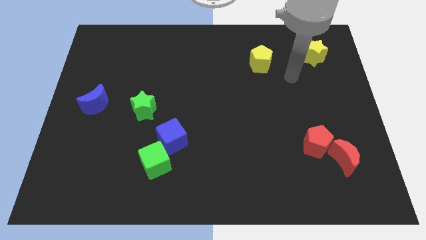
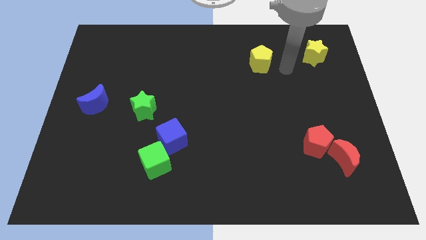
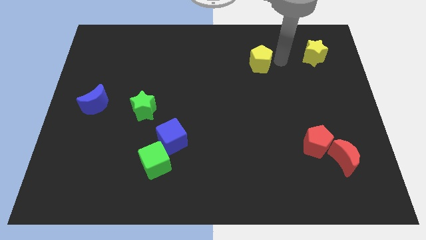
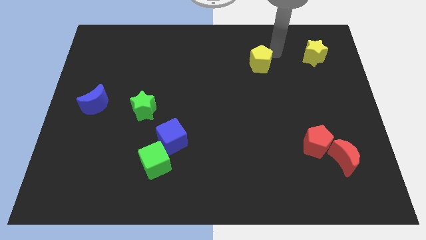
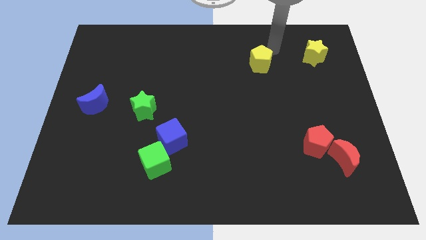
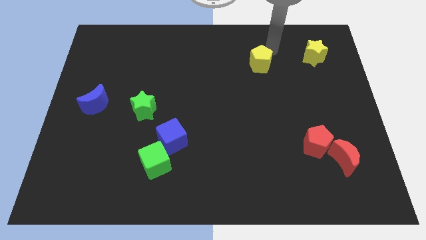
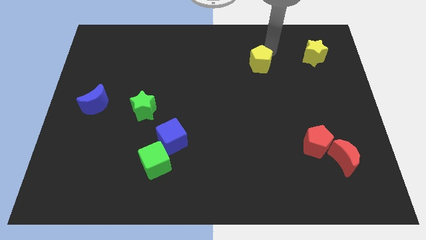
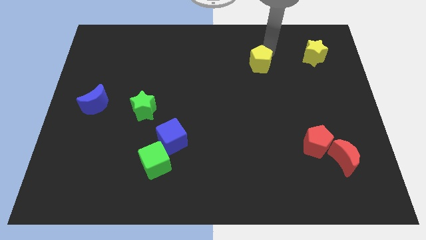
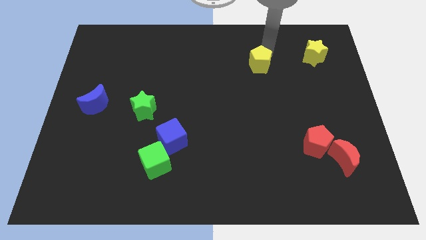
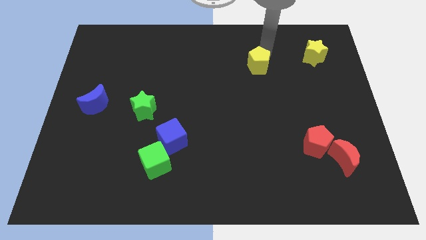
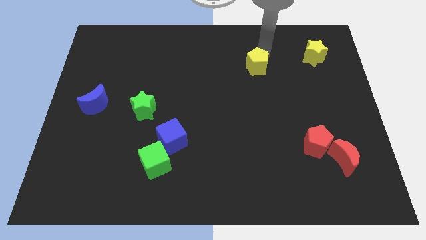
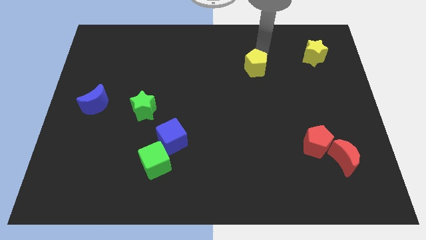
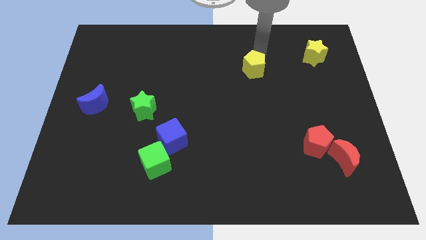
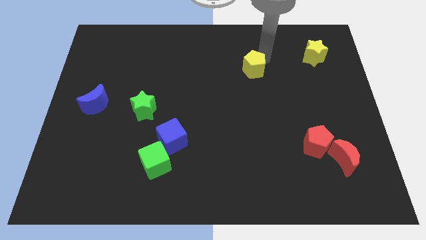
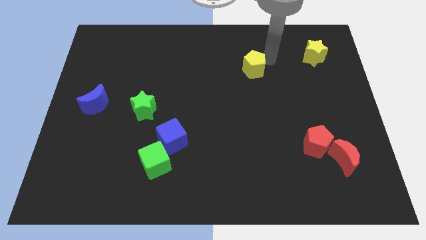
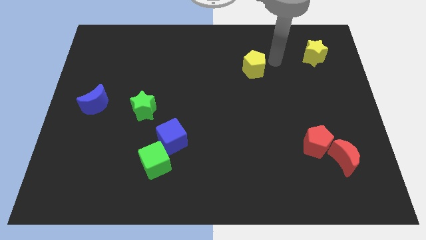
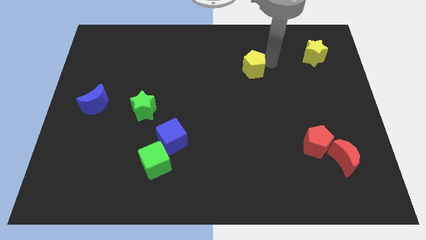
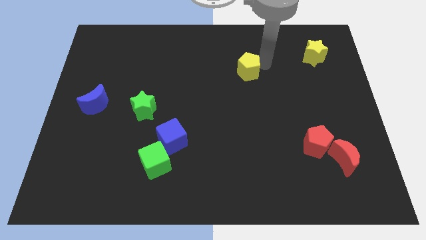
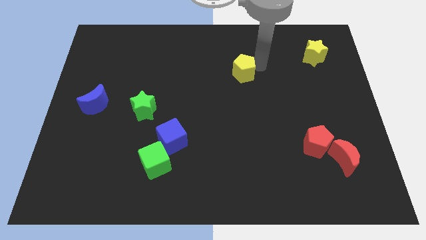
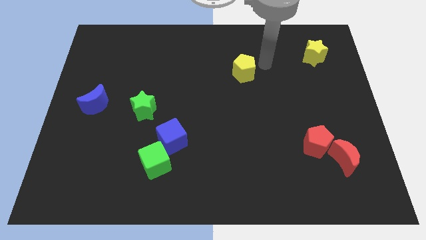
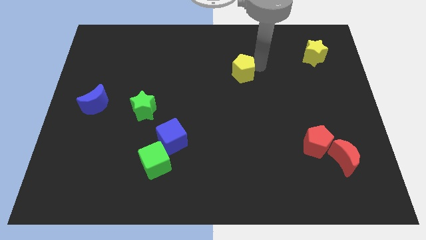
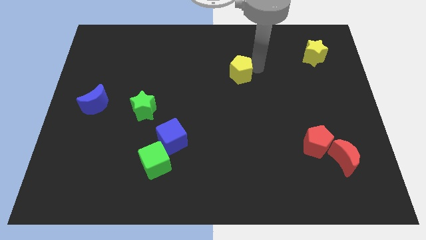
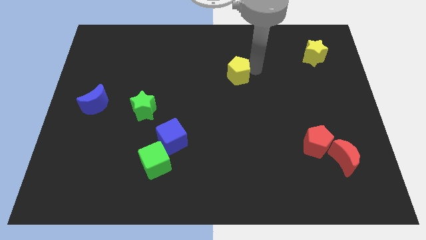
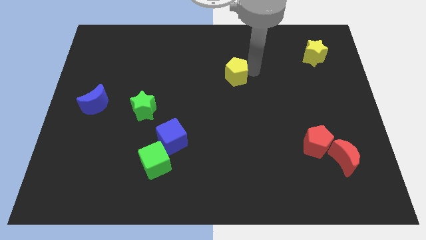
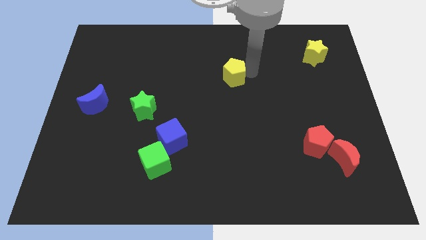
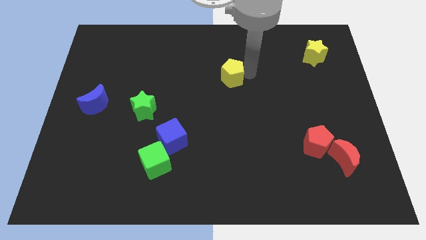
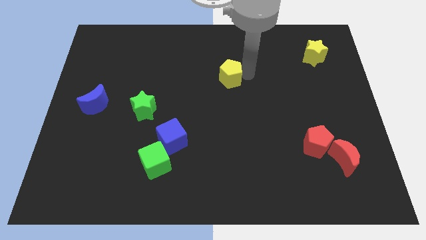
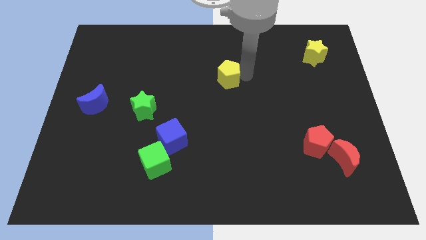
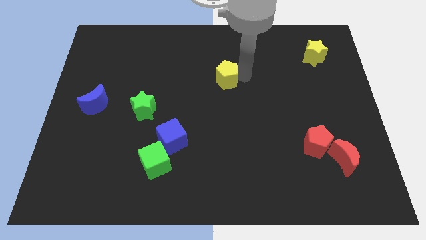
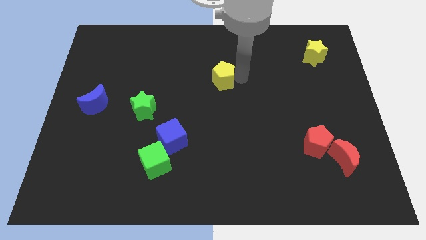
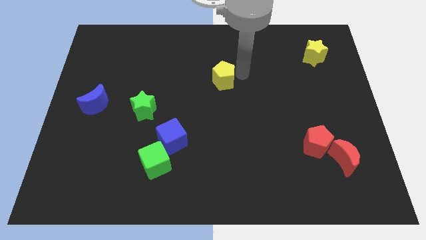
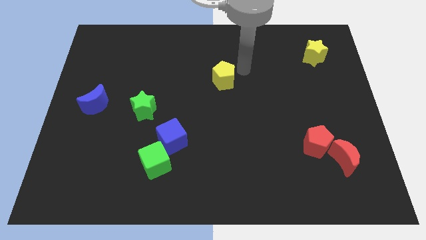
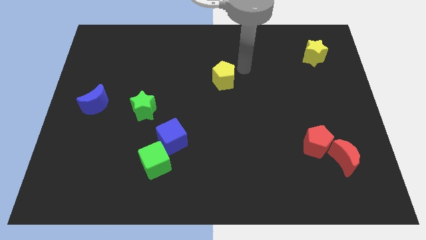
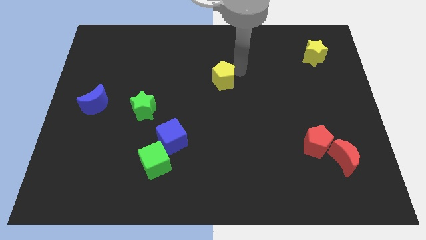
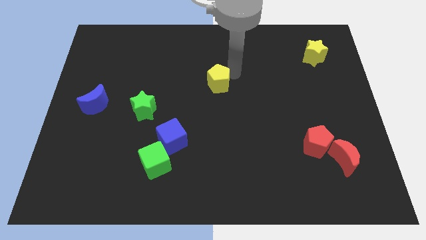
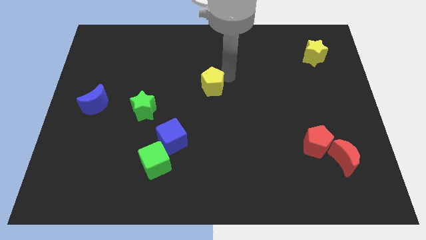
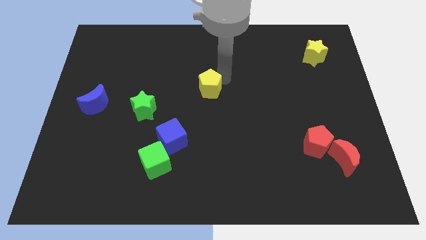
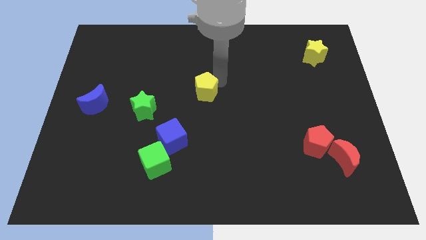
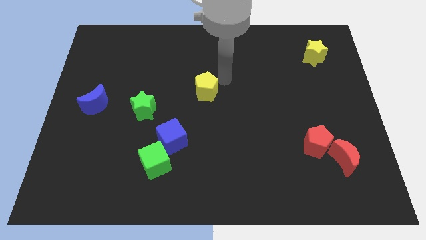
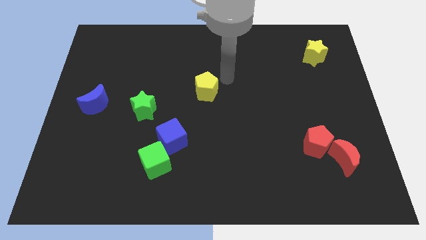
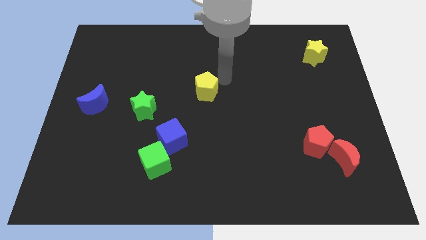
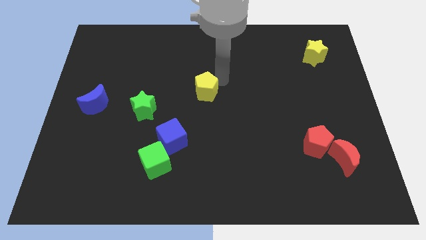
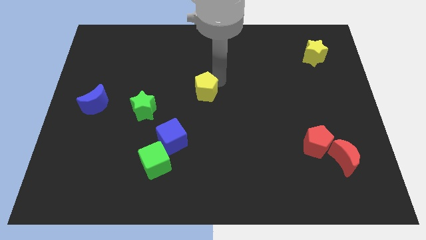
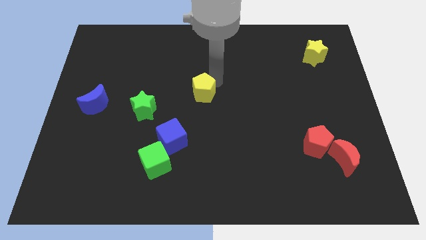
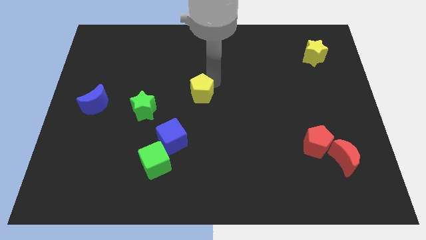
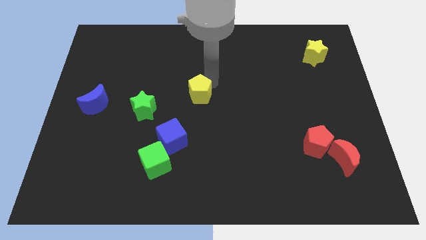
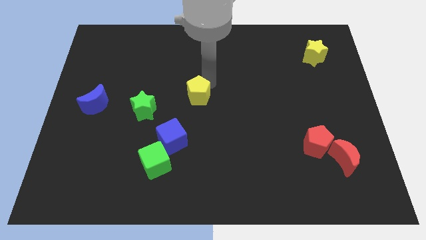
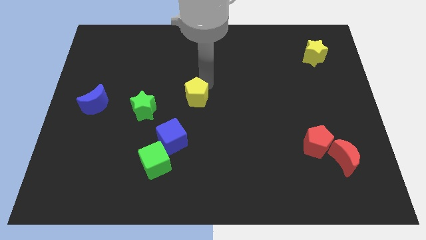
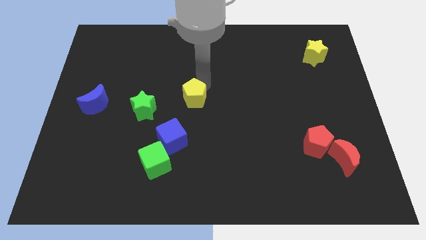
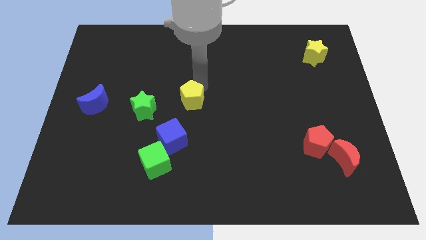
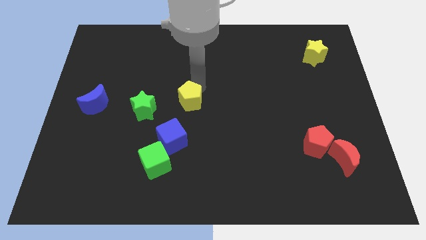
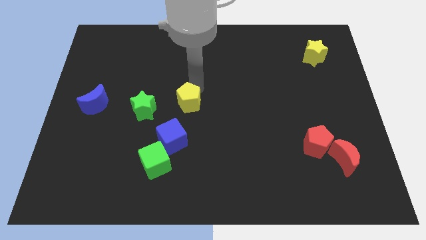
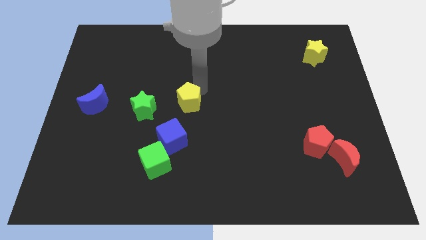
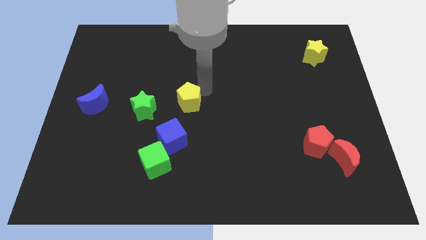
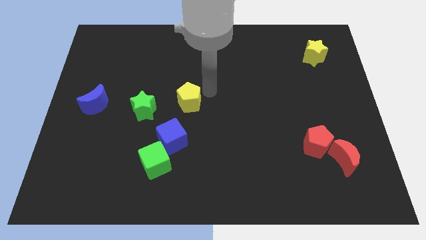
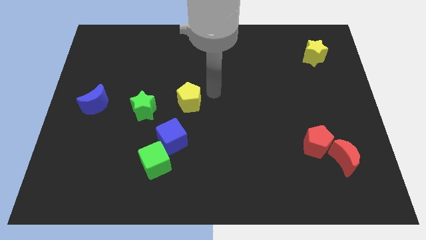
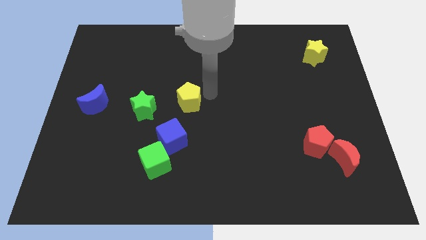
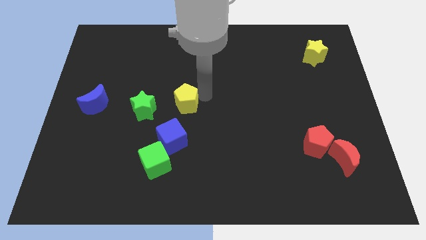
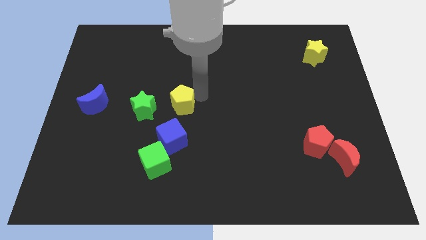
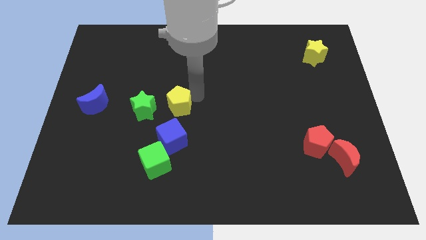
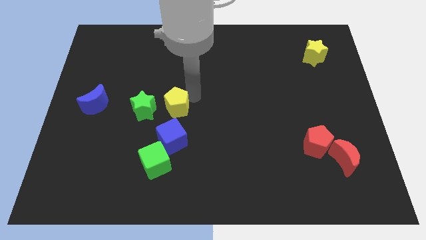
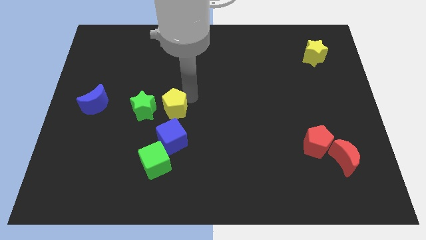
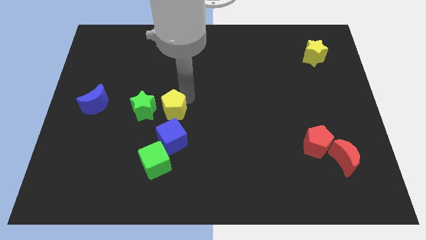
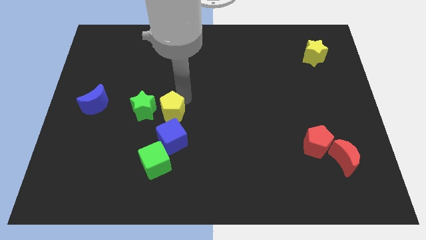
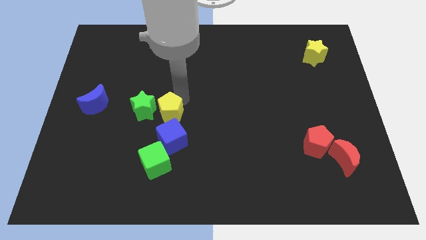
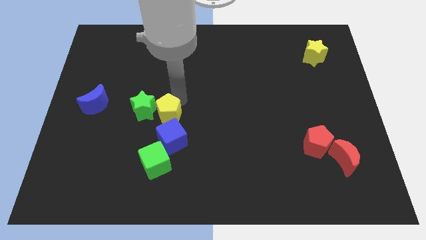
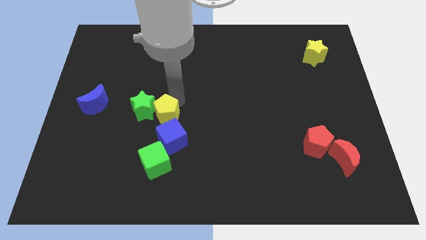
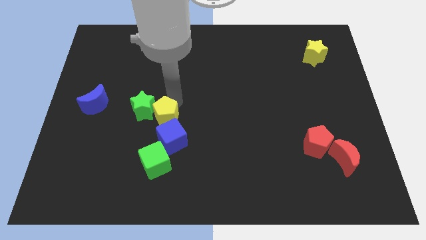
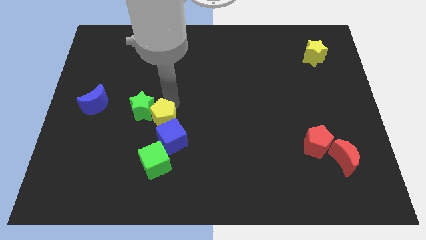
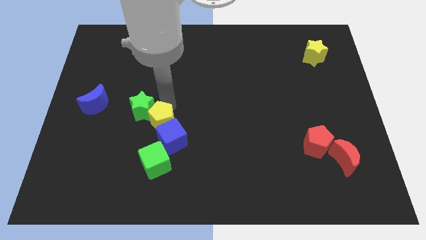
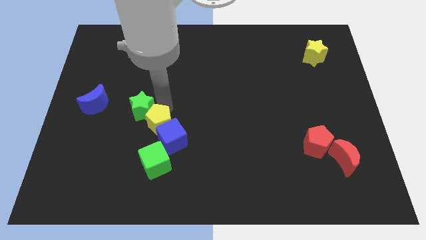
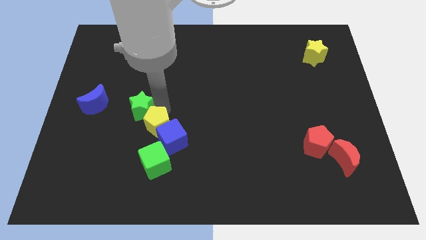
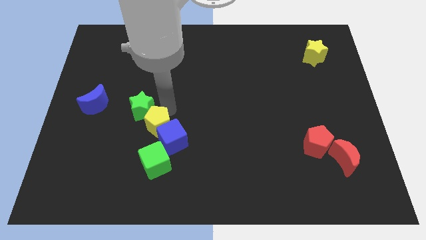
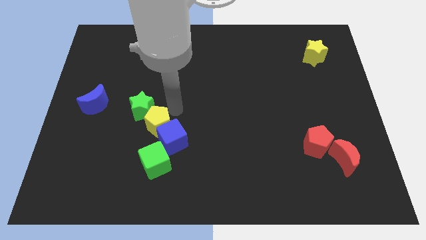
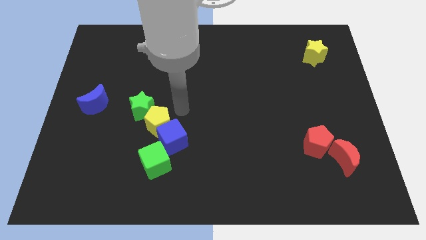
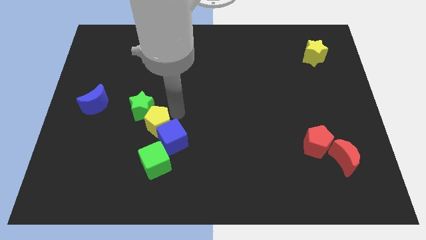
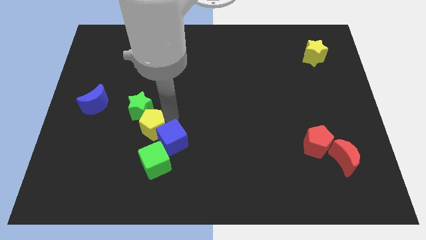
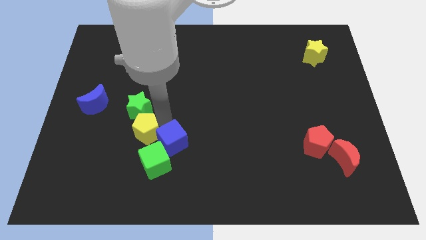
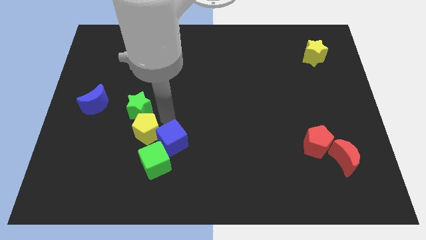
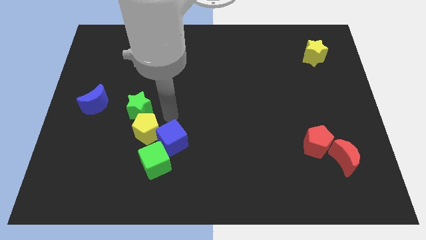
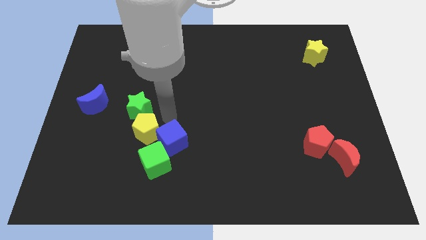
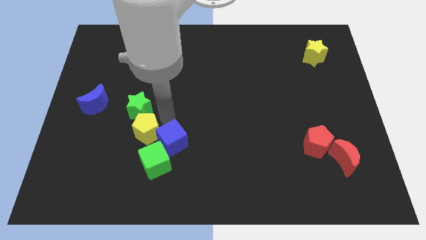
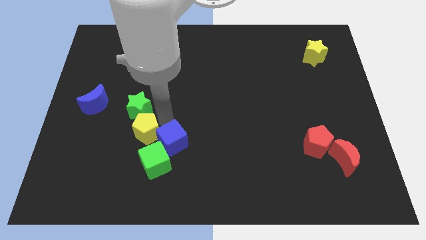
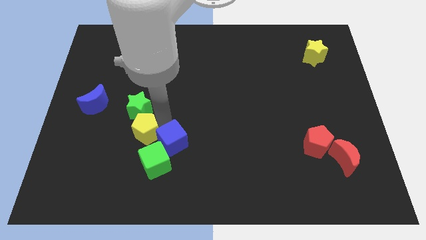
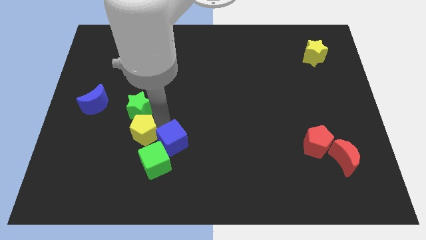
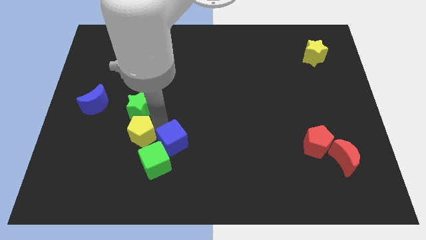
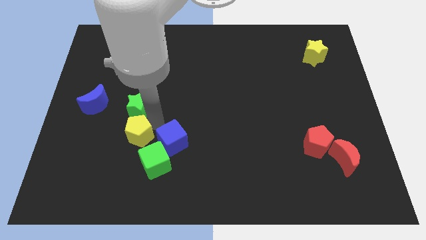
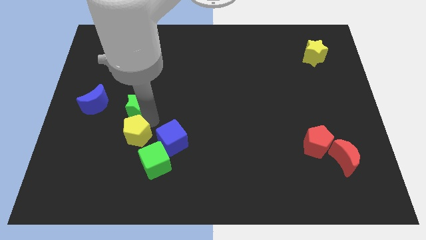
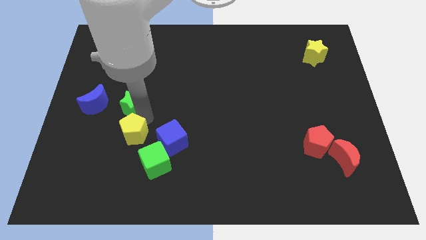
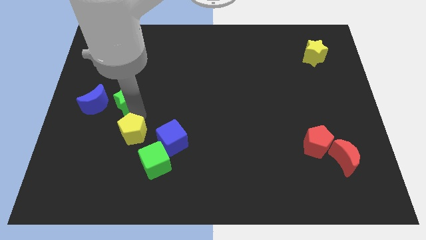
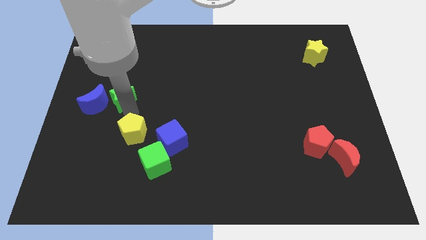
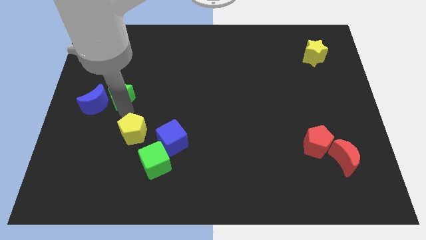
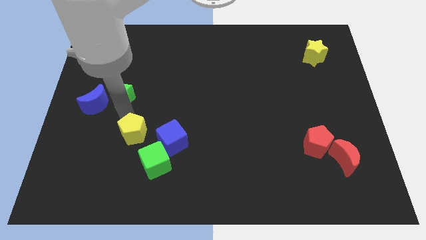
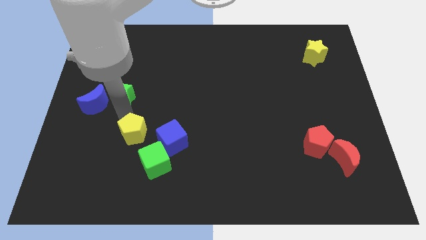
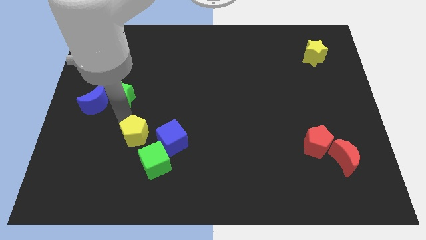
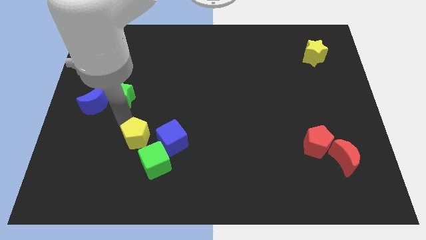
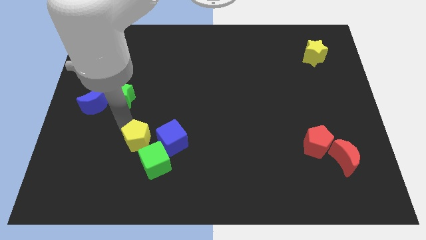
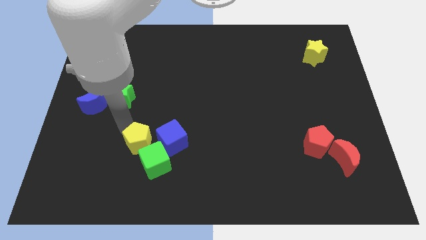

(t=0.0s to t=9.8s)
slide the yellow pentagon to the bottom left of the blue cube
